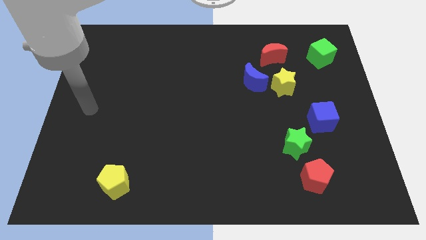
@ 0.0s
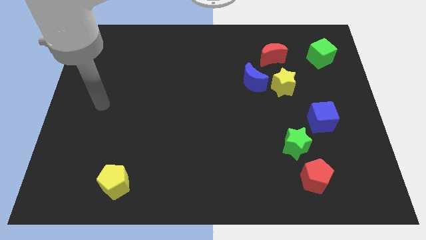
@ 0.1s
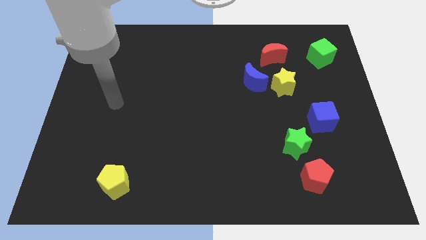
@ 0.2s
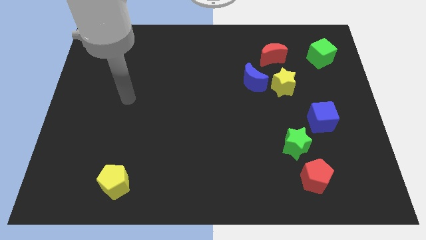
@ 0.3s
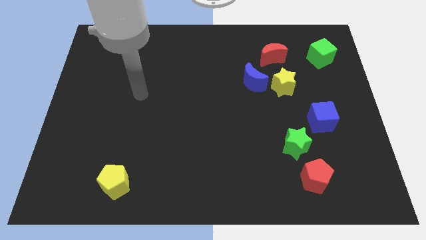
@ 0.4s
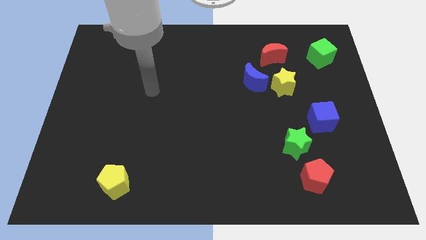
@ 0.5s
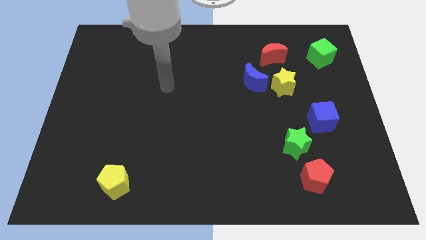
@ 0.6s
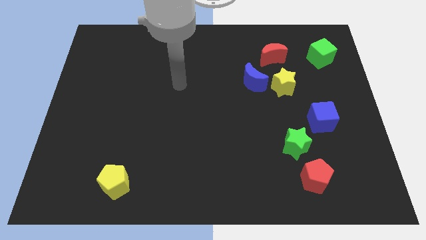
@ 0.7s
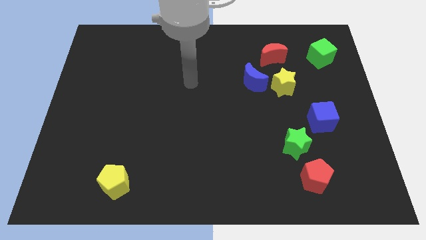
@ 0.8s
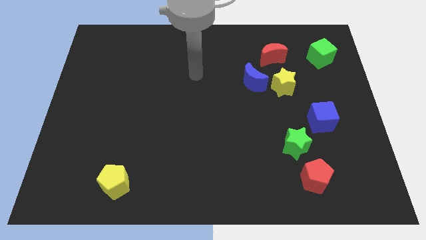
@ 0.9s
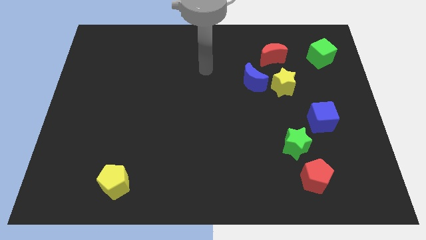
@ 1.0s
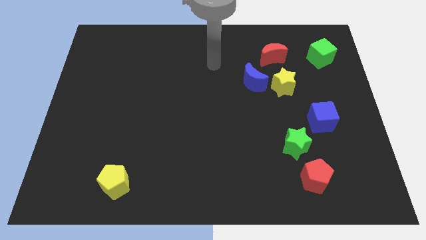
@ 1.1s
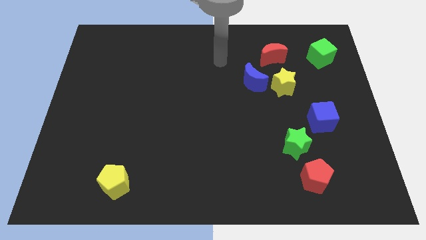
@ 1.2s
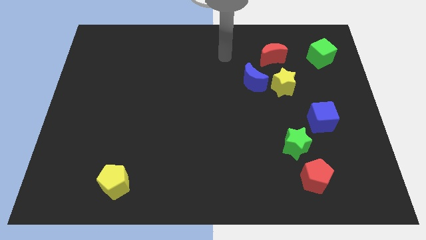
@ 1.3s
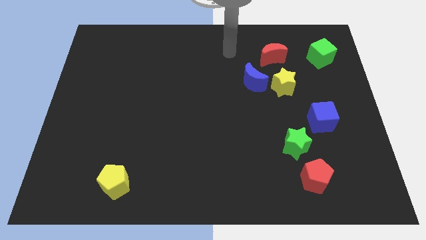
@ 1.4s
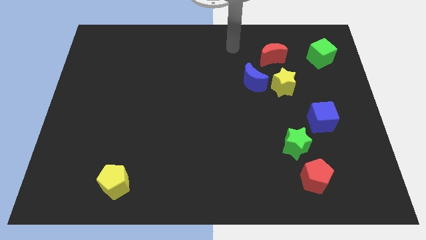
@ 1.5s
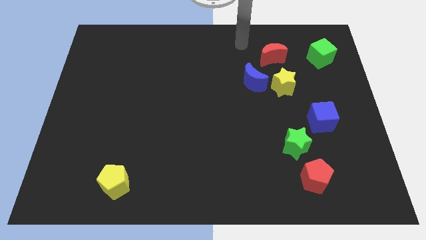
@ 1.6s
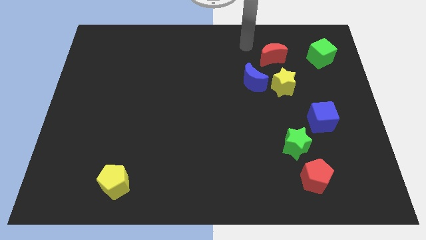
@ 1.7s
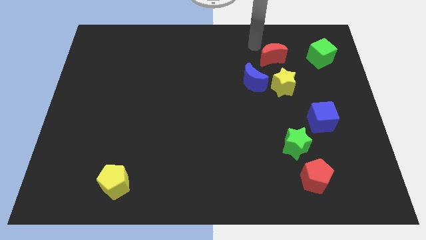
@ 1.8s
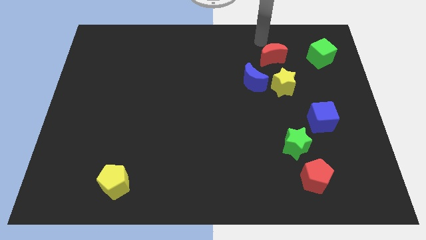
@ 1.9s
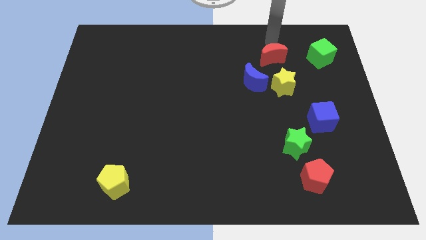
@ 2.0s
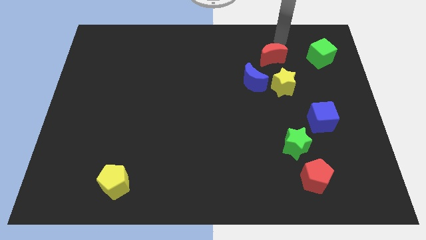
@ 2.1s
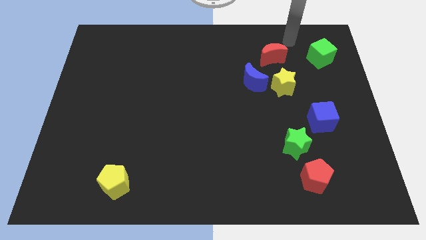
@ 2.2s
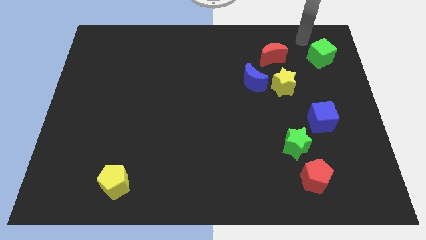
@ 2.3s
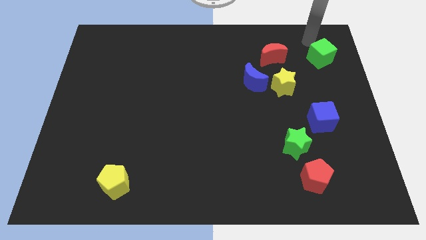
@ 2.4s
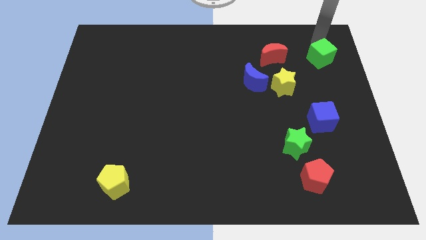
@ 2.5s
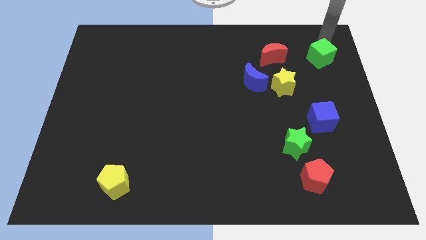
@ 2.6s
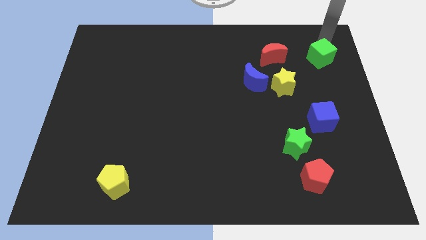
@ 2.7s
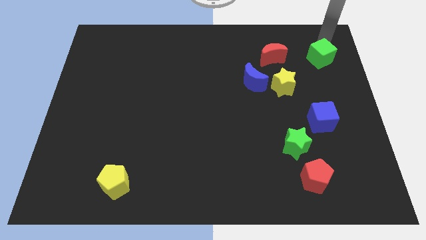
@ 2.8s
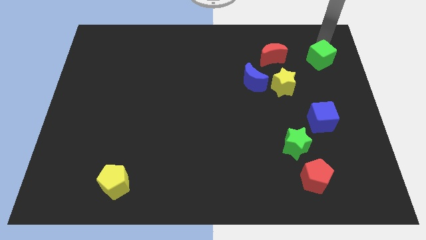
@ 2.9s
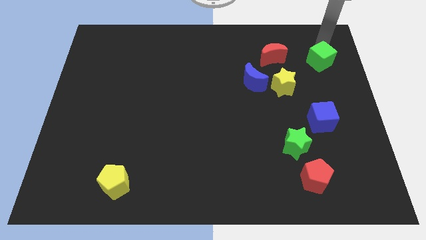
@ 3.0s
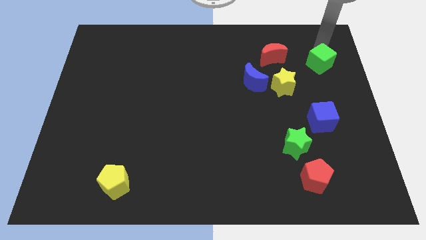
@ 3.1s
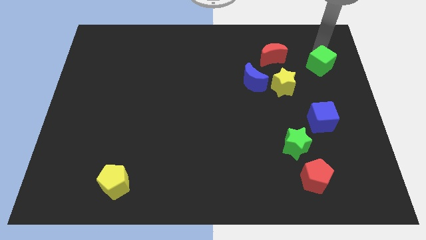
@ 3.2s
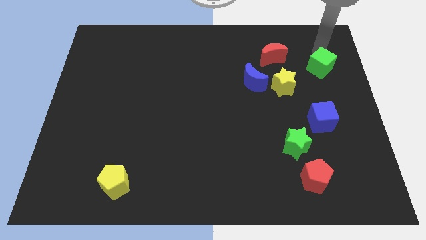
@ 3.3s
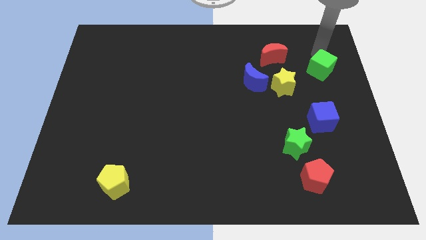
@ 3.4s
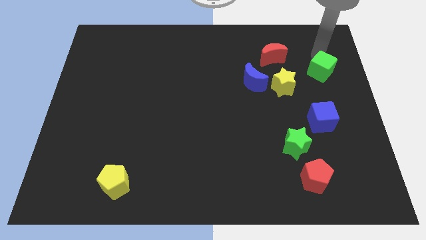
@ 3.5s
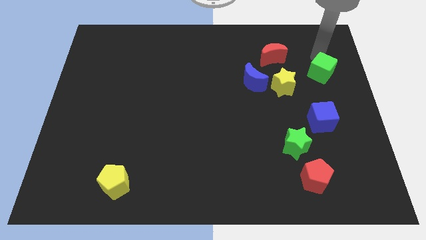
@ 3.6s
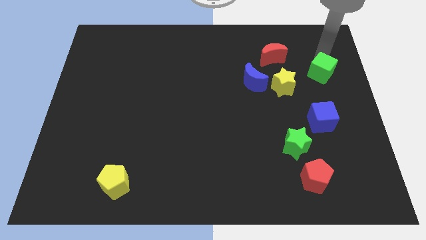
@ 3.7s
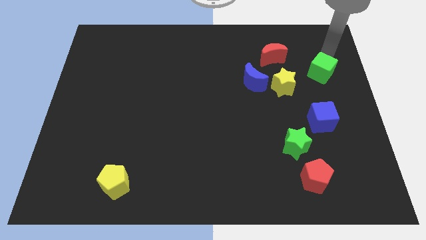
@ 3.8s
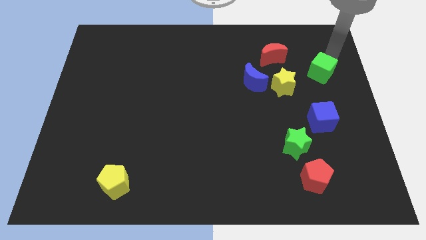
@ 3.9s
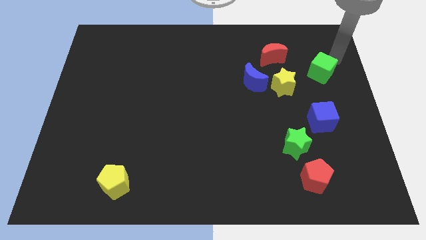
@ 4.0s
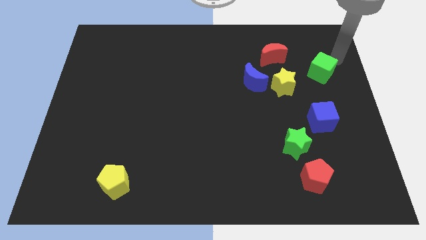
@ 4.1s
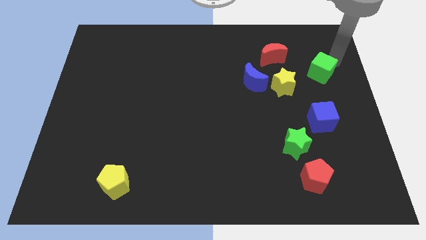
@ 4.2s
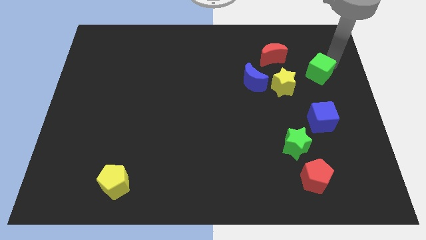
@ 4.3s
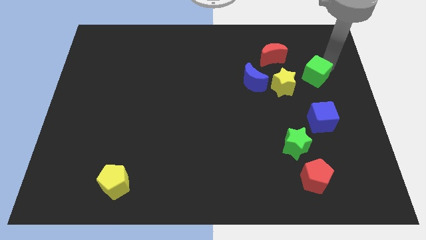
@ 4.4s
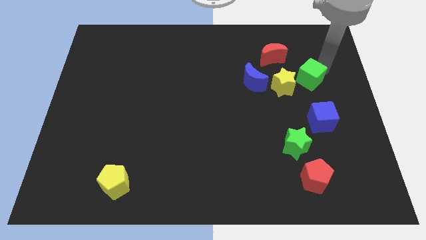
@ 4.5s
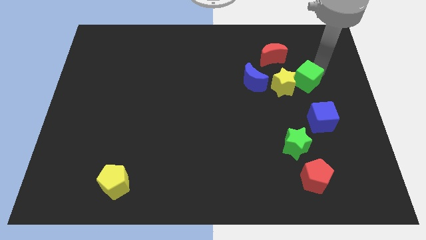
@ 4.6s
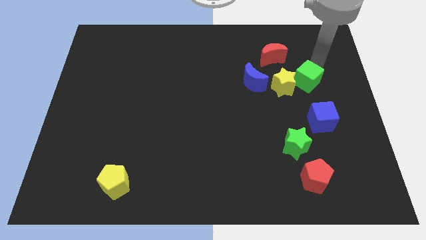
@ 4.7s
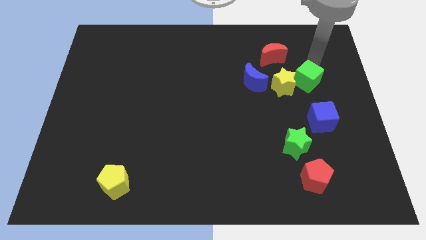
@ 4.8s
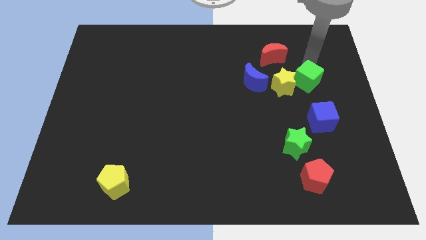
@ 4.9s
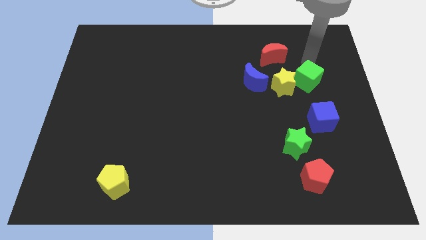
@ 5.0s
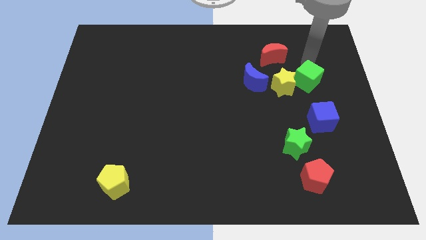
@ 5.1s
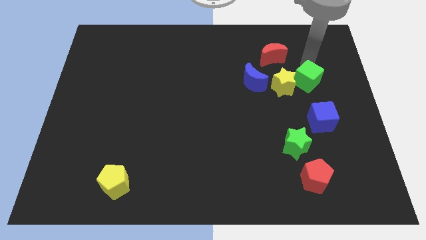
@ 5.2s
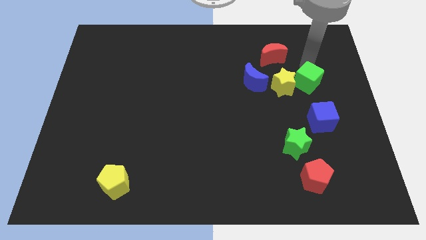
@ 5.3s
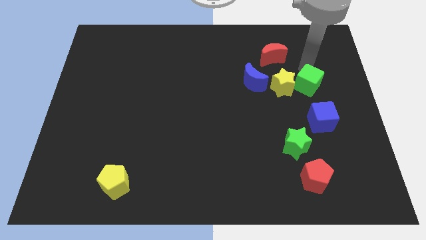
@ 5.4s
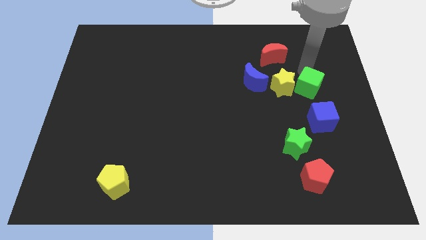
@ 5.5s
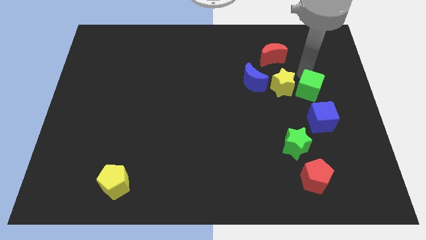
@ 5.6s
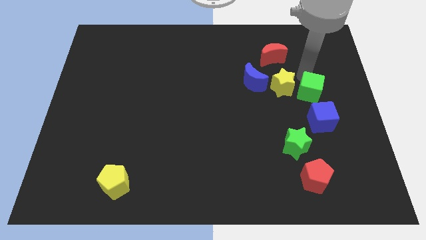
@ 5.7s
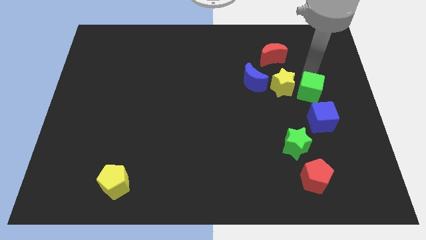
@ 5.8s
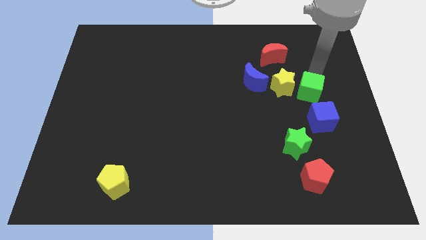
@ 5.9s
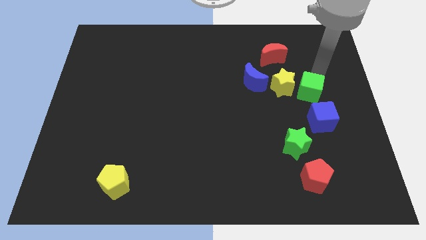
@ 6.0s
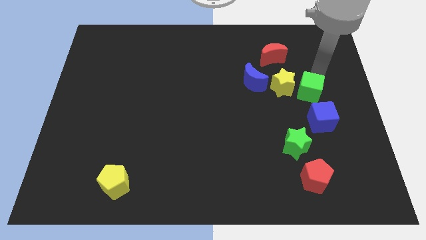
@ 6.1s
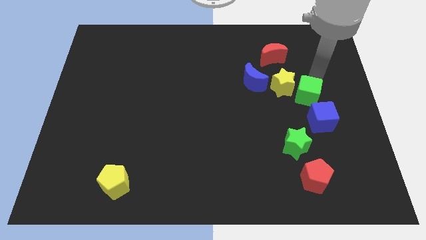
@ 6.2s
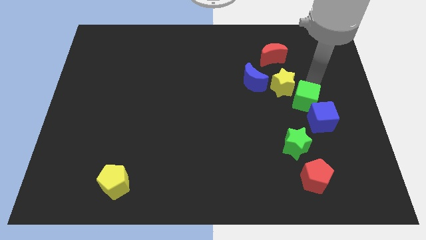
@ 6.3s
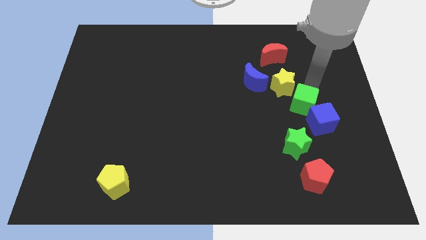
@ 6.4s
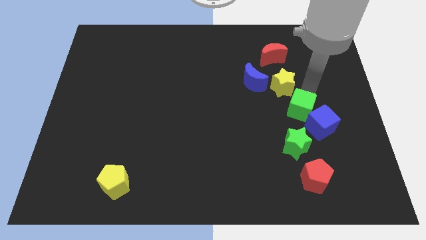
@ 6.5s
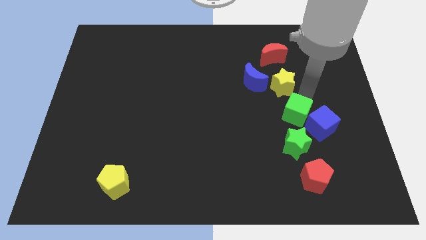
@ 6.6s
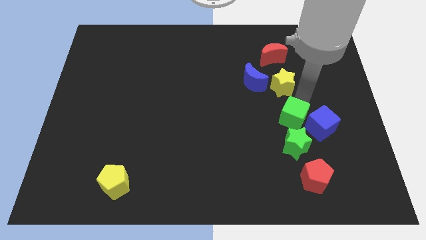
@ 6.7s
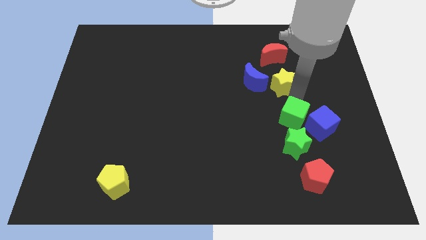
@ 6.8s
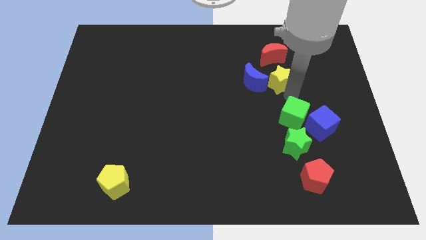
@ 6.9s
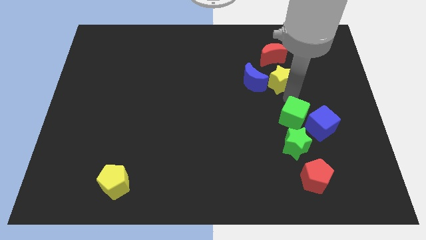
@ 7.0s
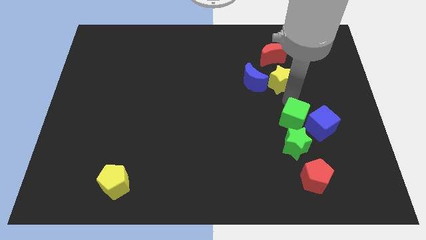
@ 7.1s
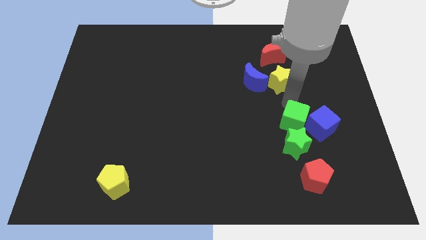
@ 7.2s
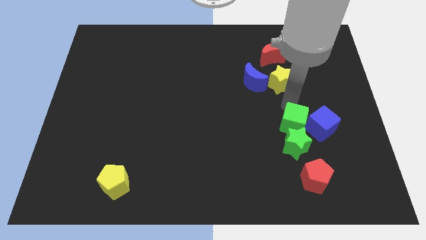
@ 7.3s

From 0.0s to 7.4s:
move the green cube to the green star
